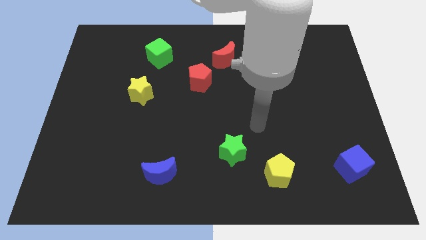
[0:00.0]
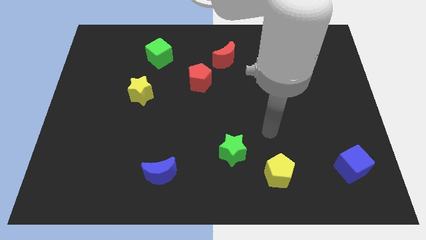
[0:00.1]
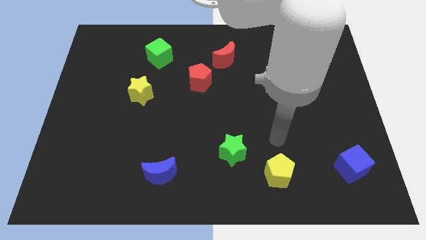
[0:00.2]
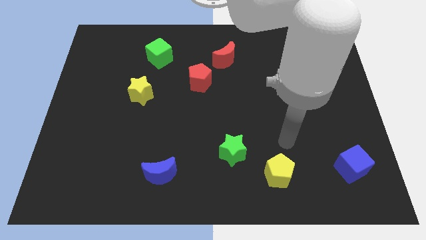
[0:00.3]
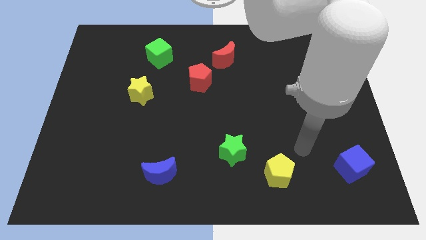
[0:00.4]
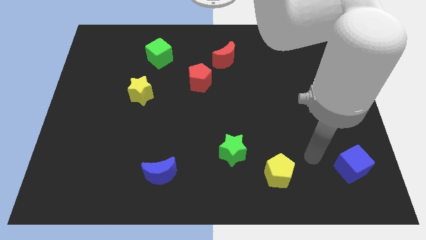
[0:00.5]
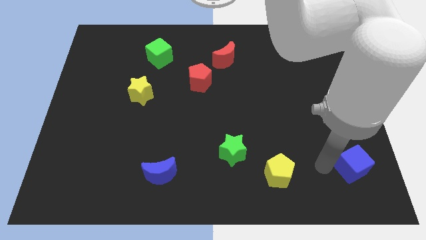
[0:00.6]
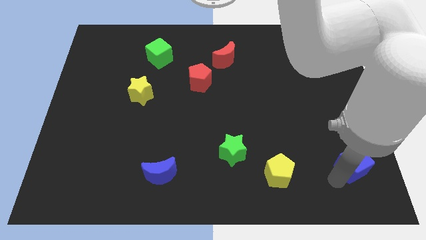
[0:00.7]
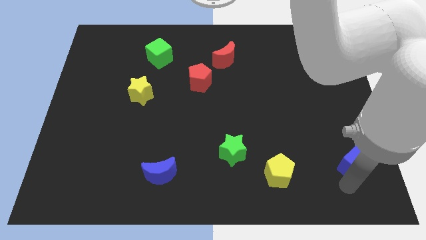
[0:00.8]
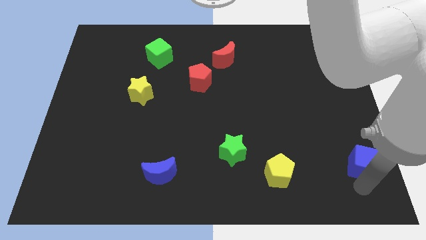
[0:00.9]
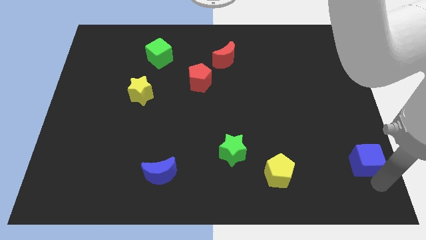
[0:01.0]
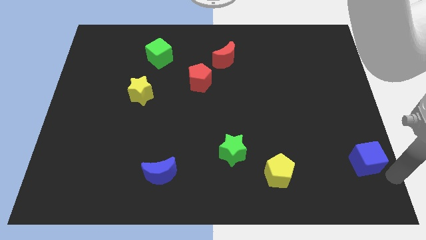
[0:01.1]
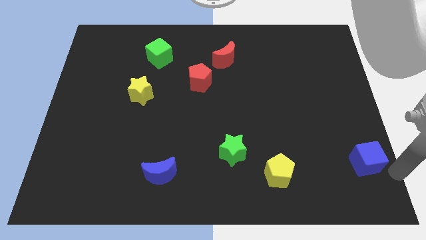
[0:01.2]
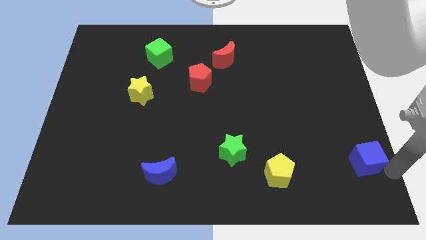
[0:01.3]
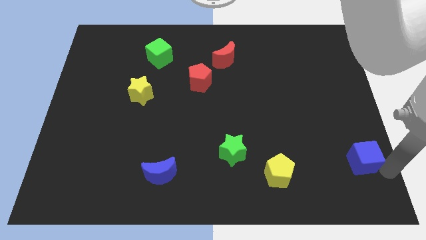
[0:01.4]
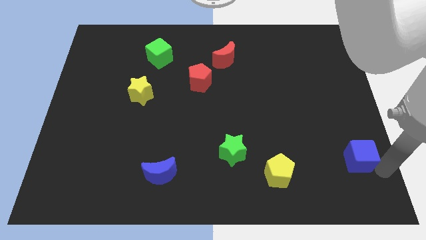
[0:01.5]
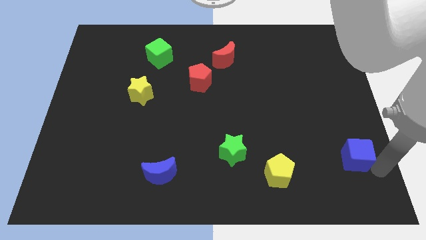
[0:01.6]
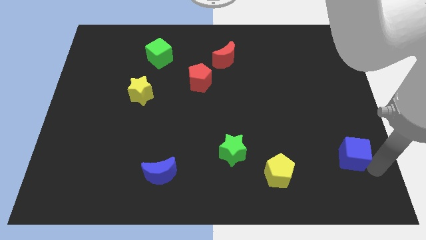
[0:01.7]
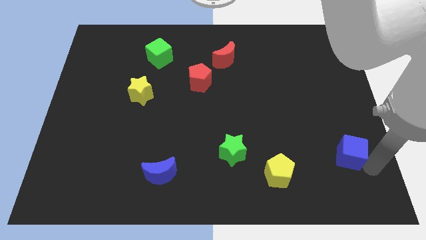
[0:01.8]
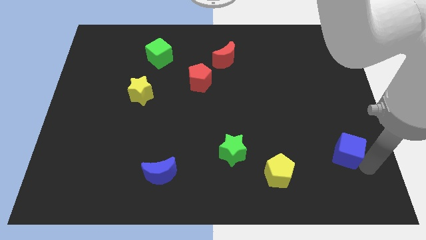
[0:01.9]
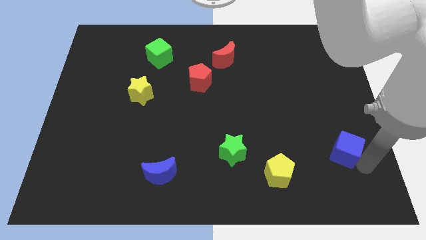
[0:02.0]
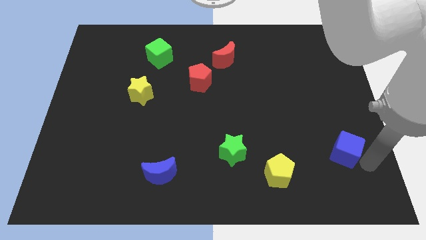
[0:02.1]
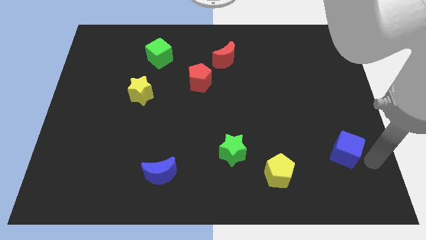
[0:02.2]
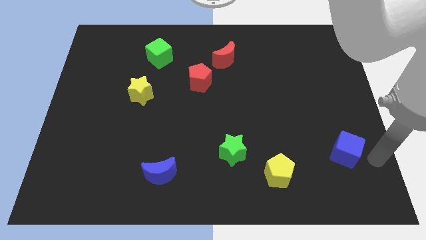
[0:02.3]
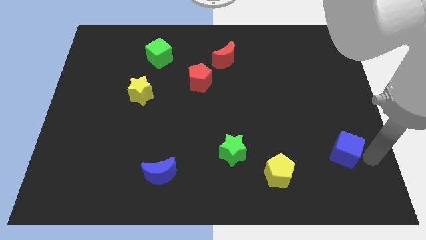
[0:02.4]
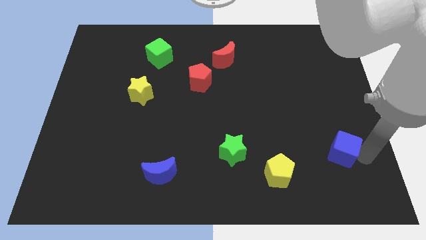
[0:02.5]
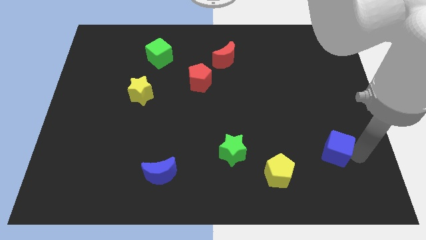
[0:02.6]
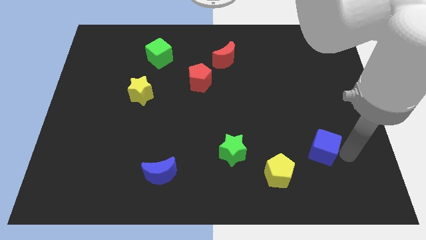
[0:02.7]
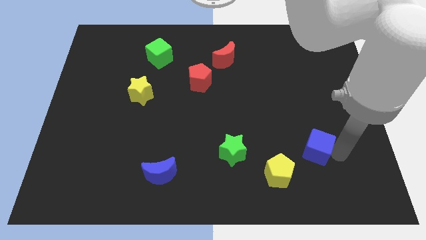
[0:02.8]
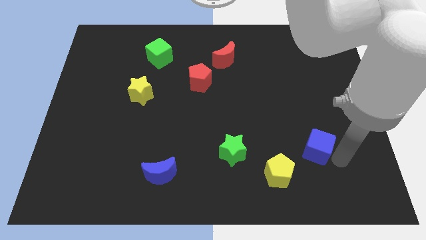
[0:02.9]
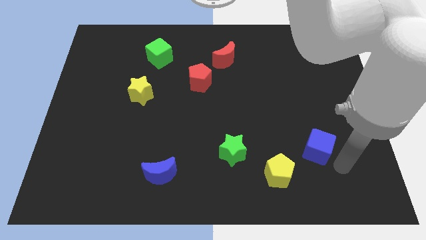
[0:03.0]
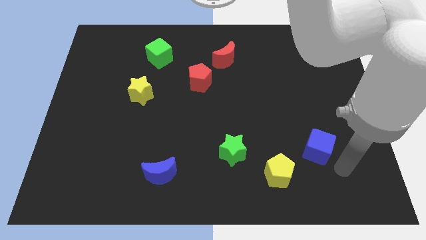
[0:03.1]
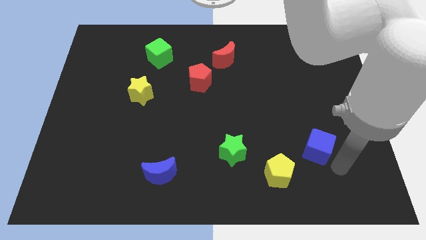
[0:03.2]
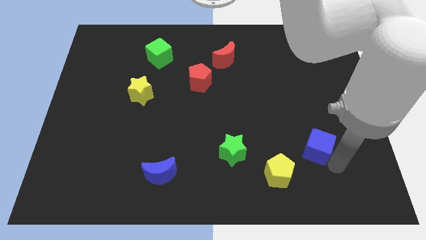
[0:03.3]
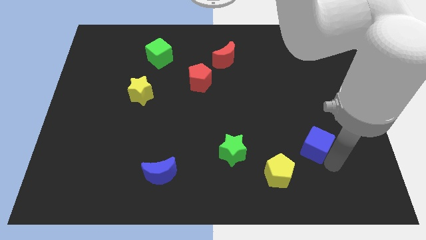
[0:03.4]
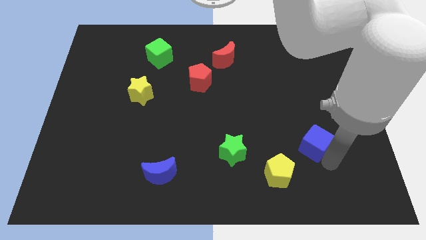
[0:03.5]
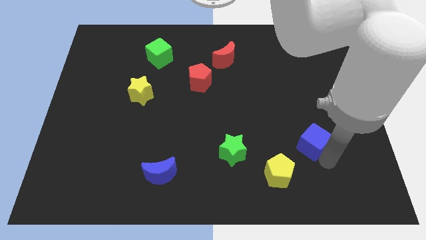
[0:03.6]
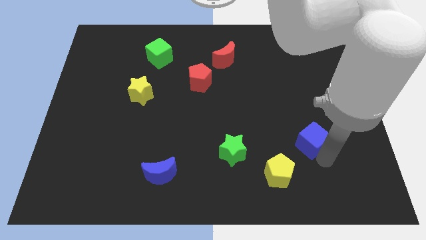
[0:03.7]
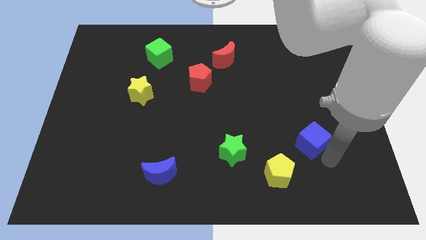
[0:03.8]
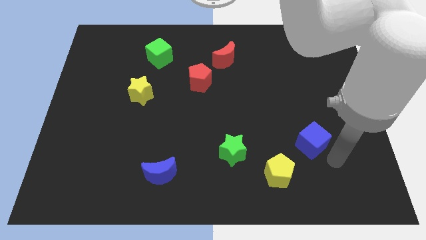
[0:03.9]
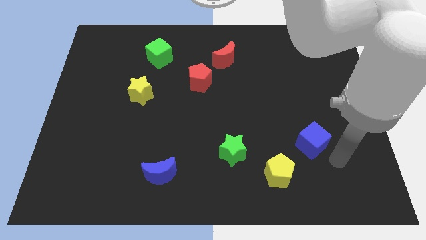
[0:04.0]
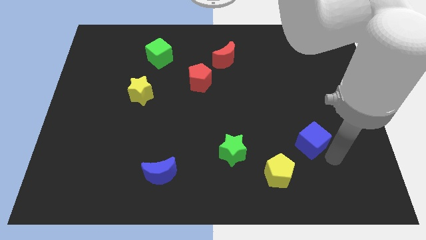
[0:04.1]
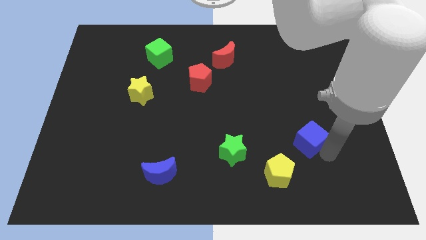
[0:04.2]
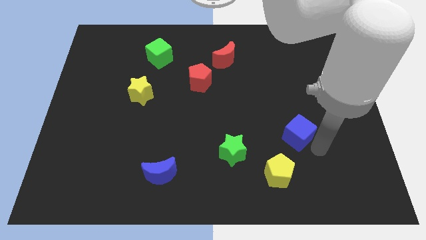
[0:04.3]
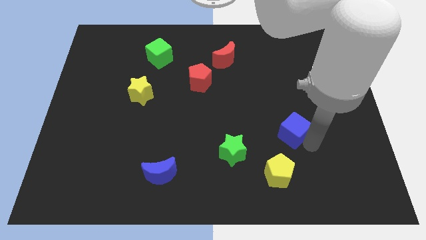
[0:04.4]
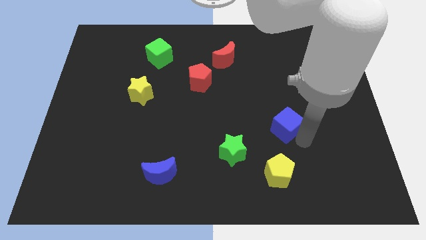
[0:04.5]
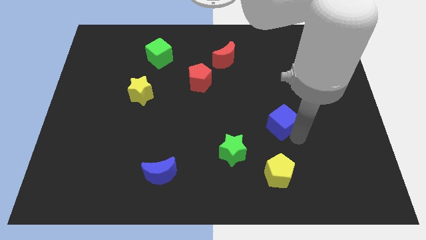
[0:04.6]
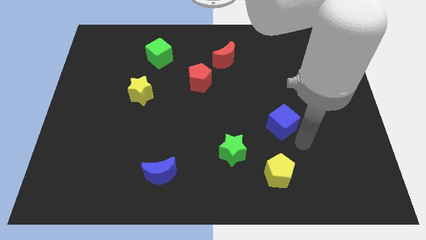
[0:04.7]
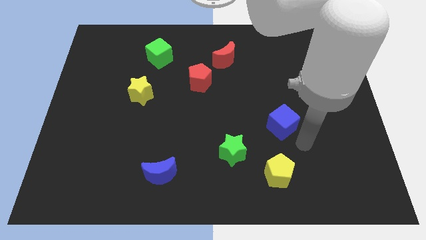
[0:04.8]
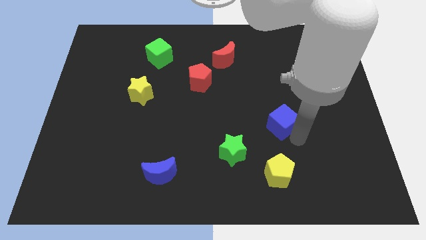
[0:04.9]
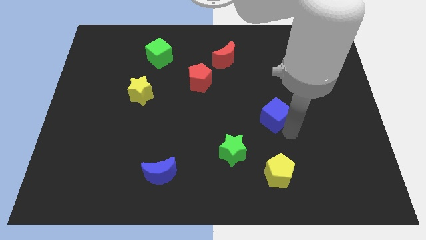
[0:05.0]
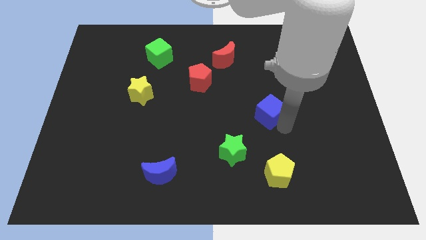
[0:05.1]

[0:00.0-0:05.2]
push the blue cube up and to the left diagonally

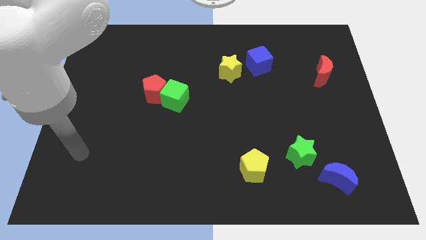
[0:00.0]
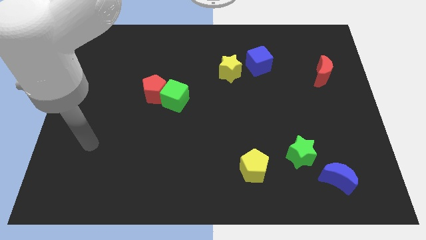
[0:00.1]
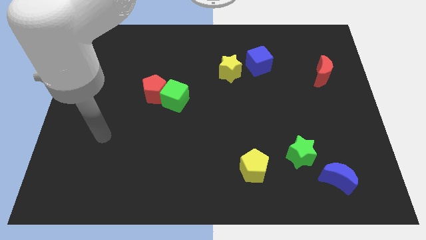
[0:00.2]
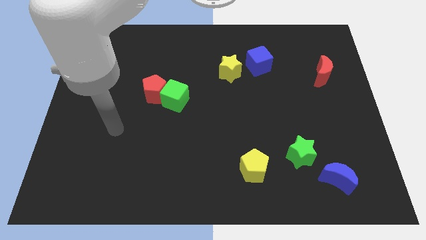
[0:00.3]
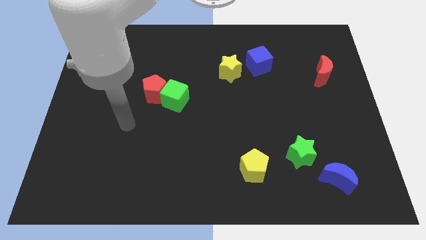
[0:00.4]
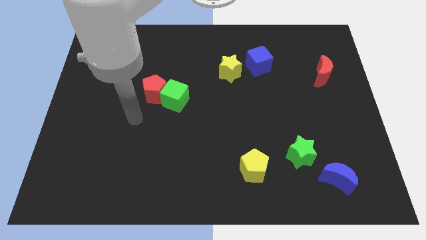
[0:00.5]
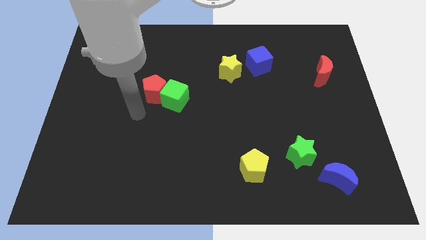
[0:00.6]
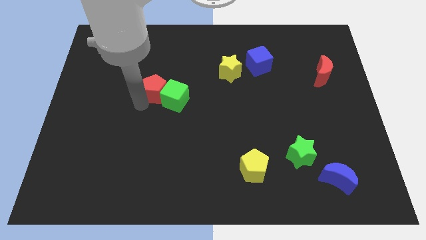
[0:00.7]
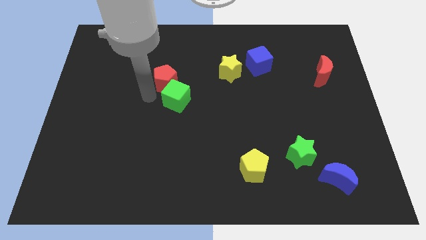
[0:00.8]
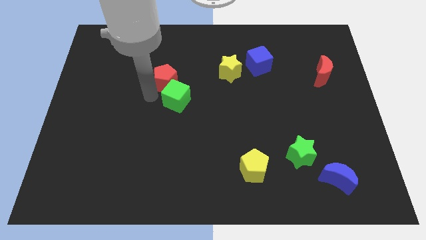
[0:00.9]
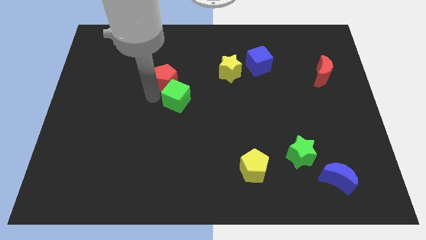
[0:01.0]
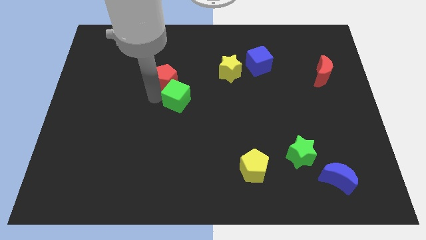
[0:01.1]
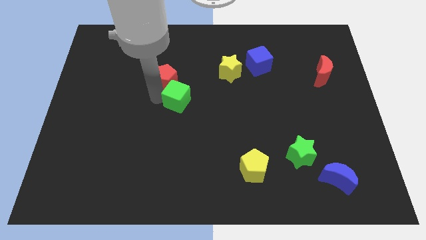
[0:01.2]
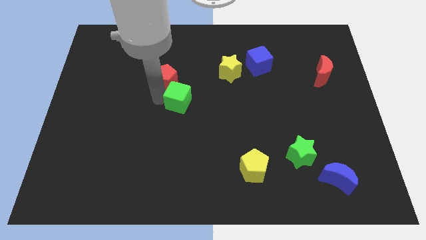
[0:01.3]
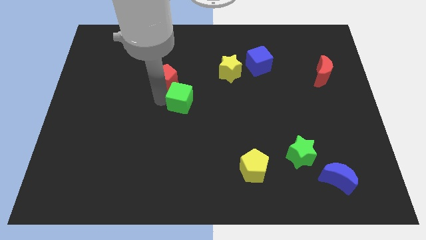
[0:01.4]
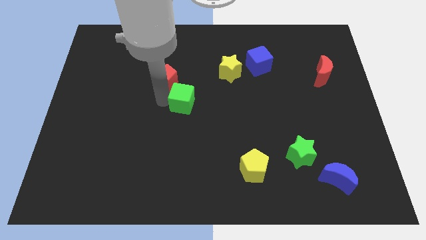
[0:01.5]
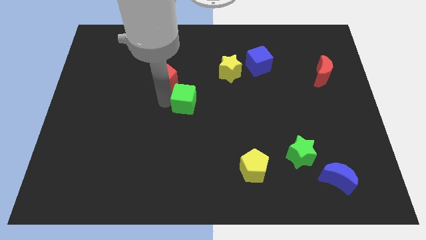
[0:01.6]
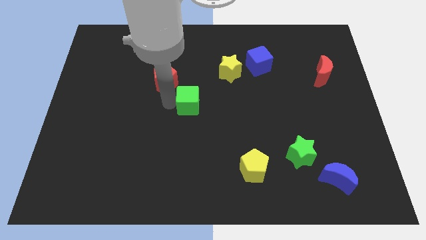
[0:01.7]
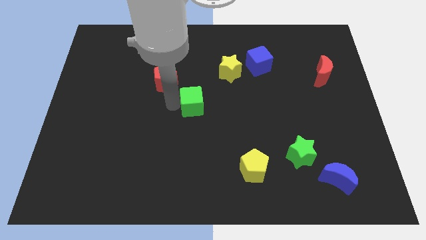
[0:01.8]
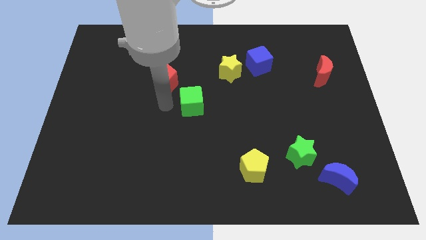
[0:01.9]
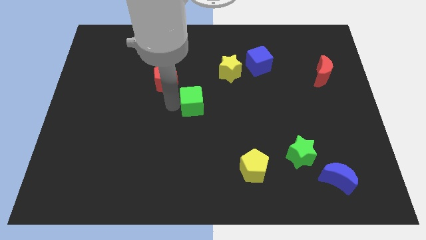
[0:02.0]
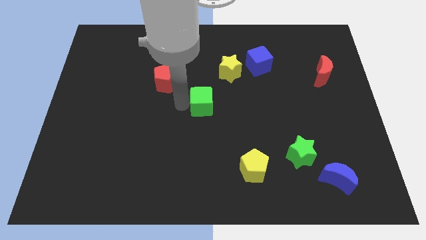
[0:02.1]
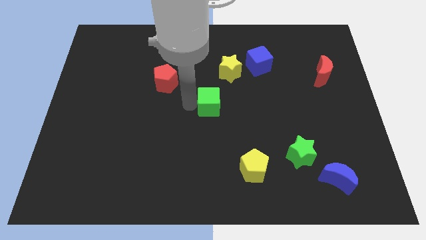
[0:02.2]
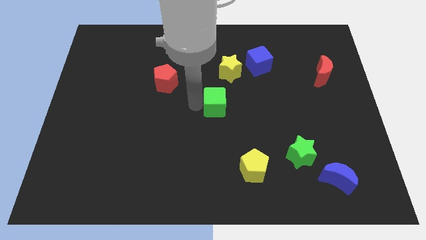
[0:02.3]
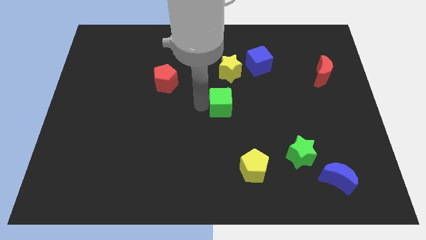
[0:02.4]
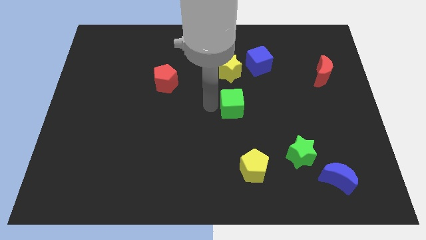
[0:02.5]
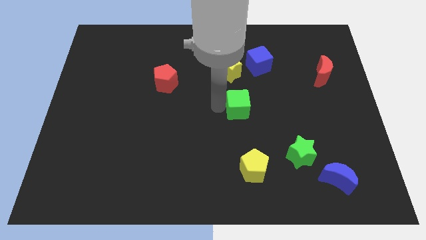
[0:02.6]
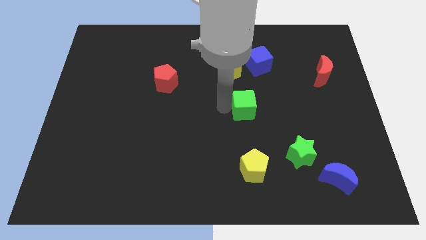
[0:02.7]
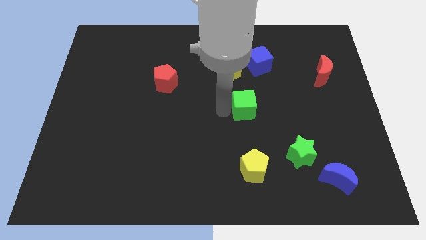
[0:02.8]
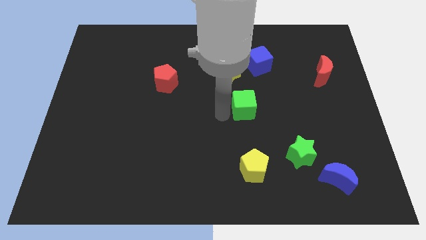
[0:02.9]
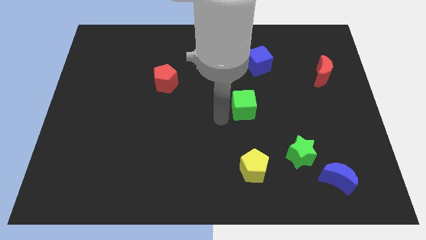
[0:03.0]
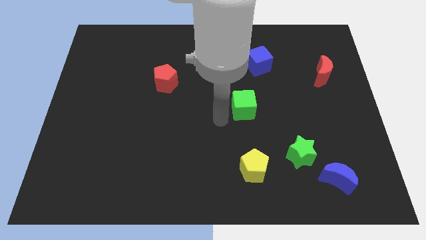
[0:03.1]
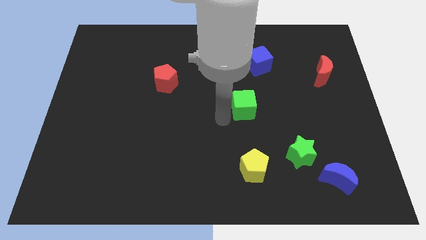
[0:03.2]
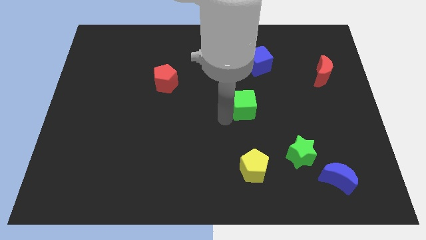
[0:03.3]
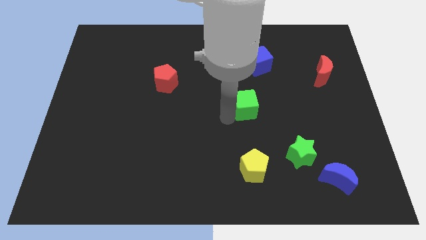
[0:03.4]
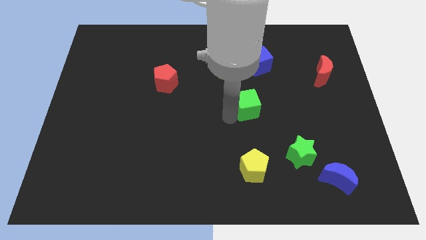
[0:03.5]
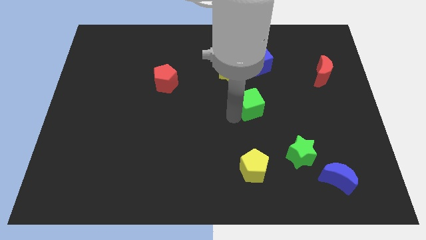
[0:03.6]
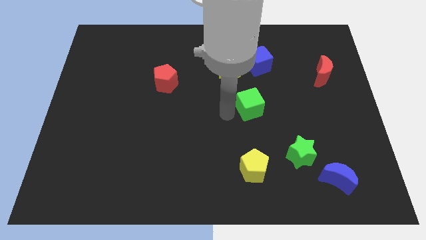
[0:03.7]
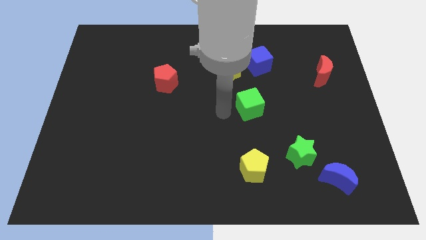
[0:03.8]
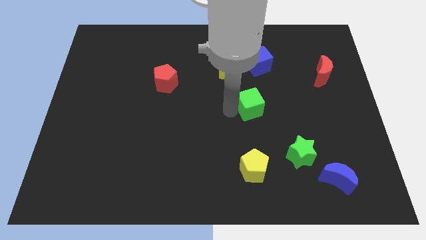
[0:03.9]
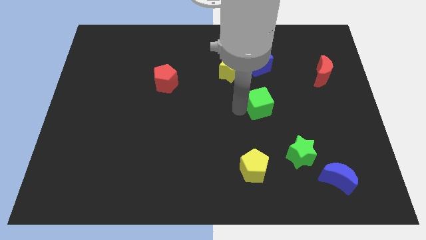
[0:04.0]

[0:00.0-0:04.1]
push the green cube right
